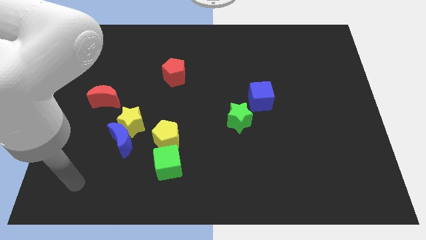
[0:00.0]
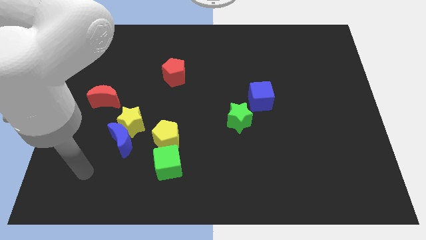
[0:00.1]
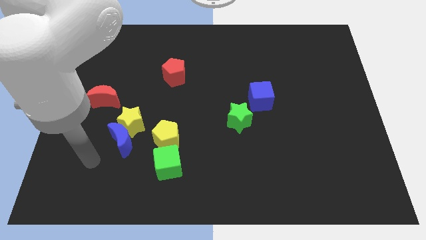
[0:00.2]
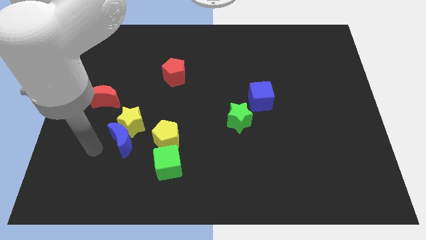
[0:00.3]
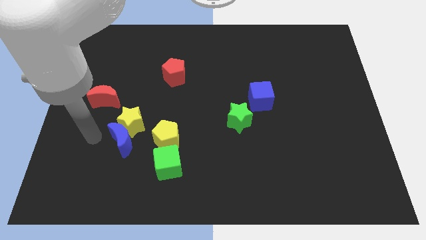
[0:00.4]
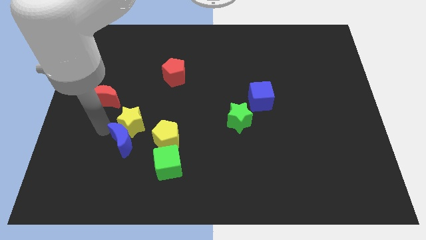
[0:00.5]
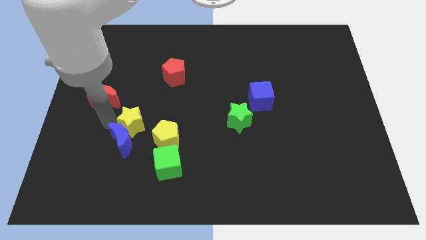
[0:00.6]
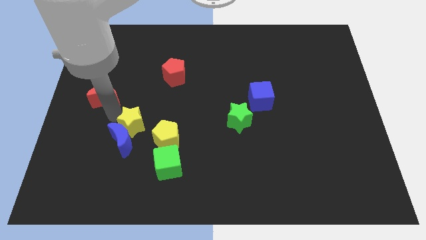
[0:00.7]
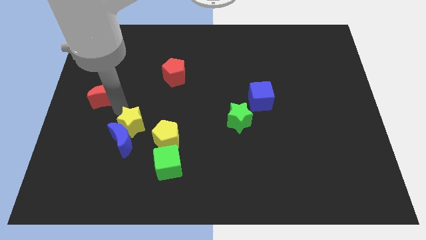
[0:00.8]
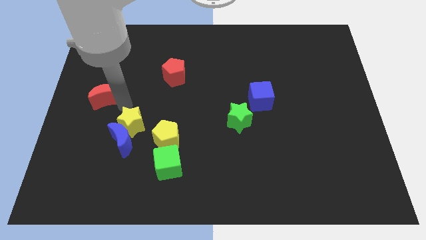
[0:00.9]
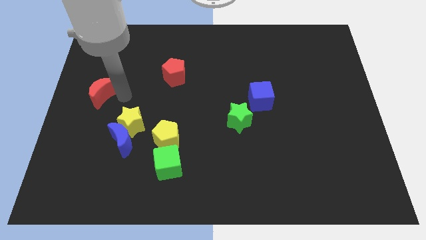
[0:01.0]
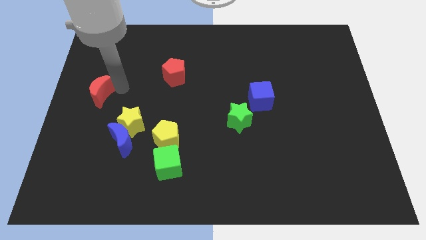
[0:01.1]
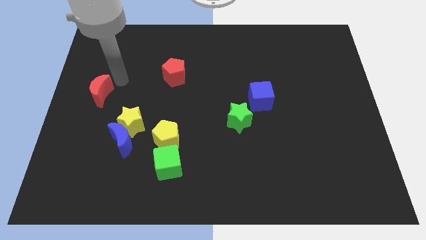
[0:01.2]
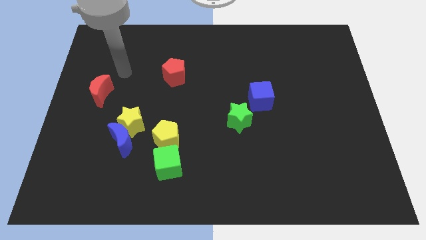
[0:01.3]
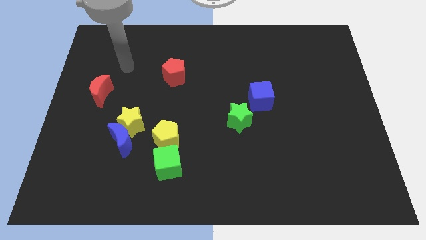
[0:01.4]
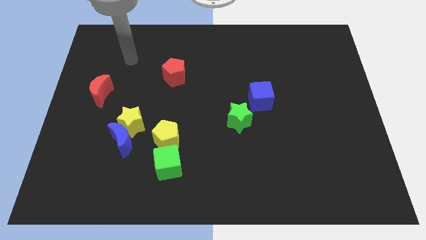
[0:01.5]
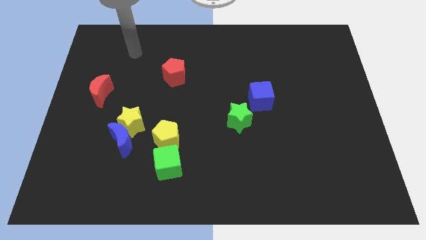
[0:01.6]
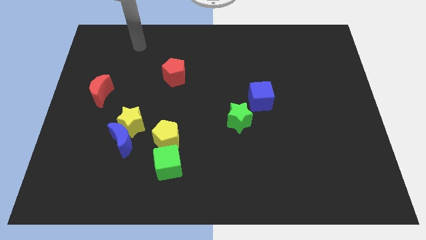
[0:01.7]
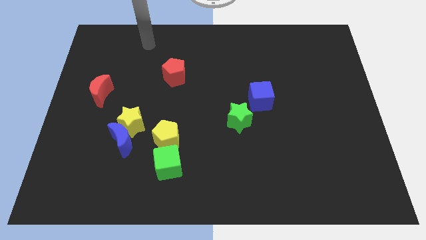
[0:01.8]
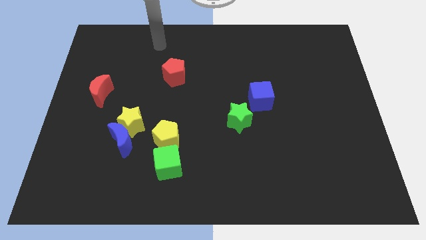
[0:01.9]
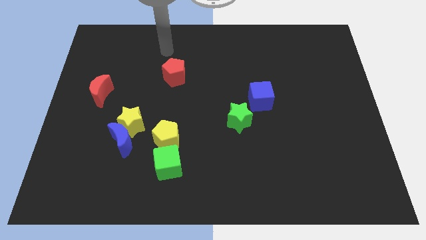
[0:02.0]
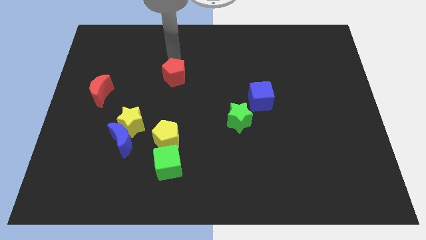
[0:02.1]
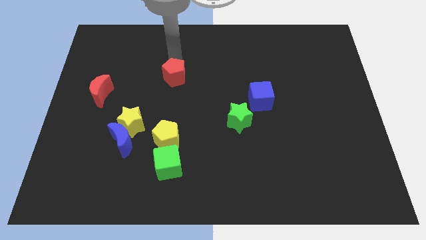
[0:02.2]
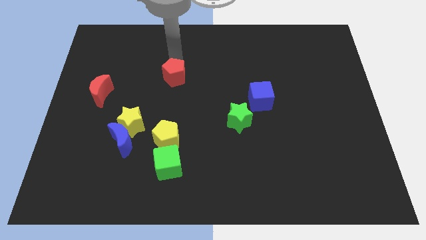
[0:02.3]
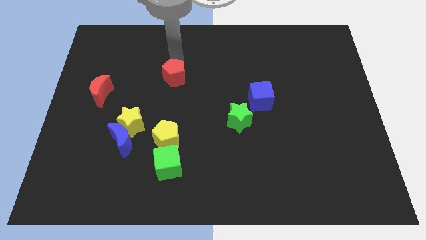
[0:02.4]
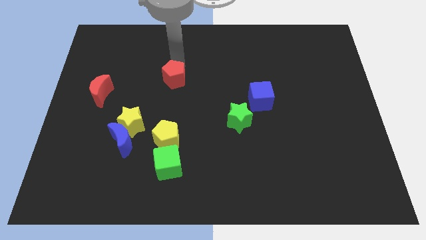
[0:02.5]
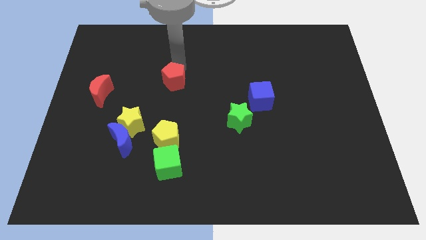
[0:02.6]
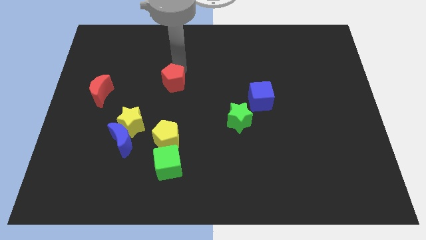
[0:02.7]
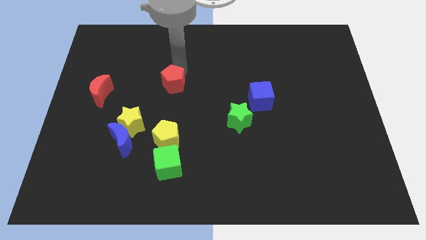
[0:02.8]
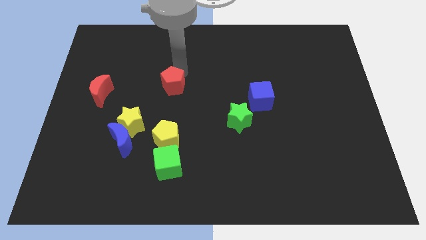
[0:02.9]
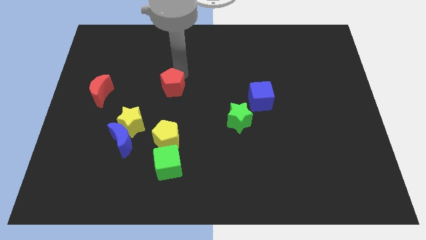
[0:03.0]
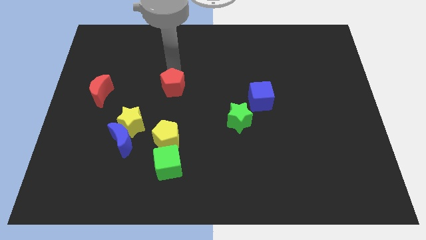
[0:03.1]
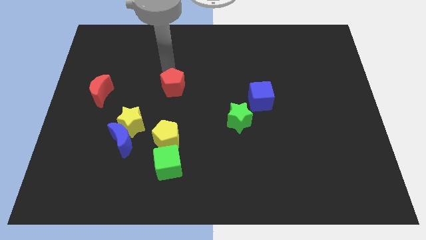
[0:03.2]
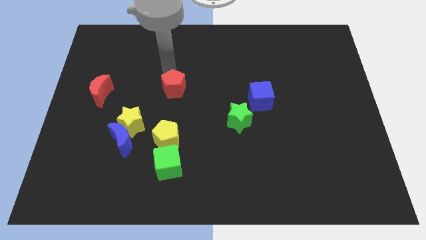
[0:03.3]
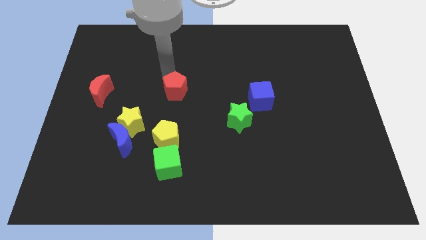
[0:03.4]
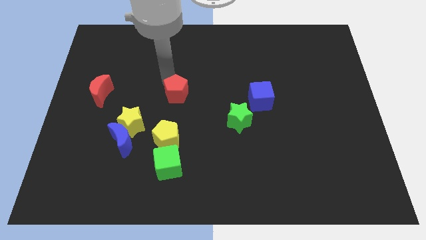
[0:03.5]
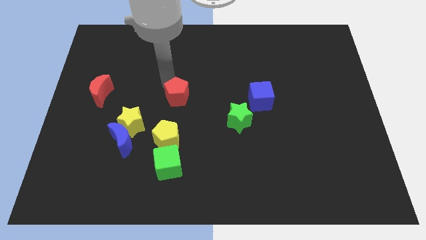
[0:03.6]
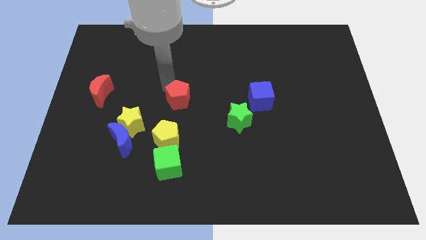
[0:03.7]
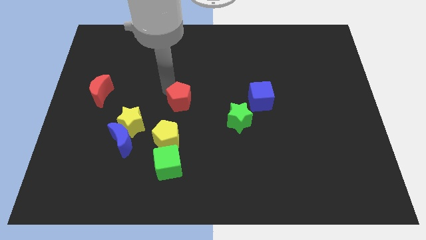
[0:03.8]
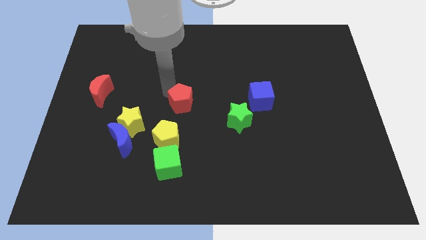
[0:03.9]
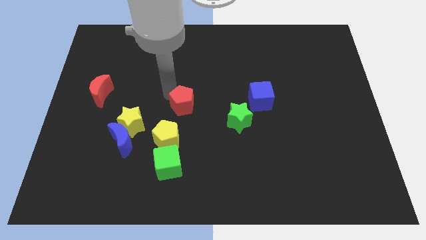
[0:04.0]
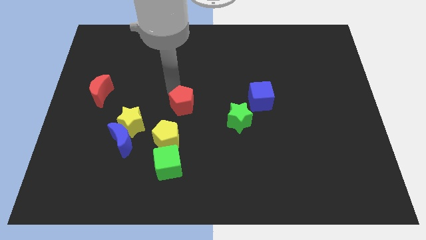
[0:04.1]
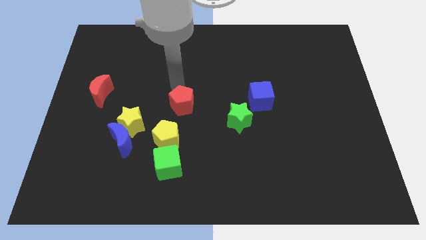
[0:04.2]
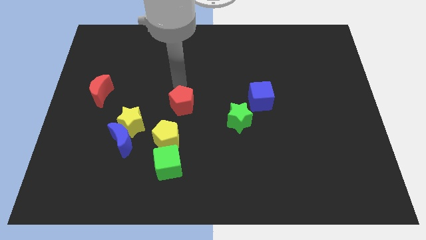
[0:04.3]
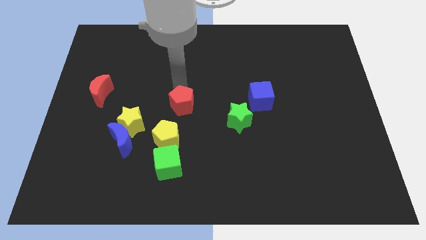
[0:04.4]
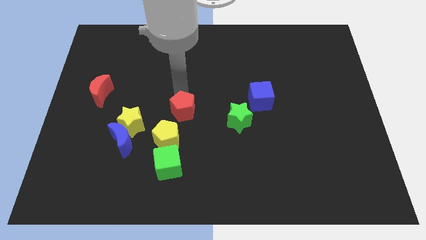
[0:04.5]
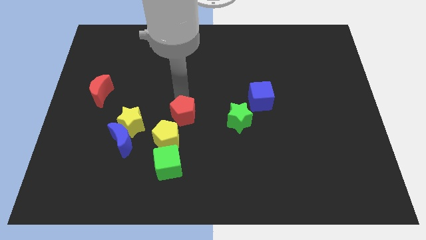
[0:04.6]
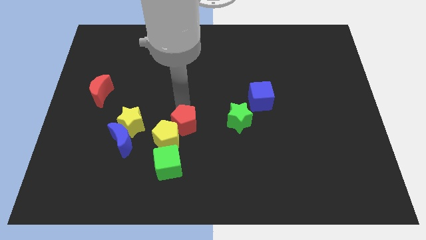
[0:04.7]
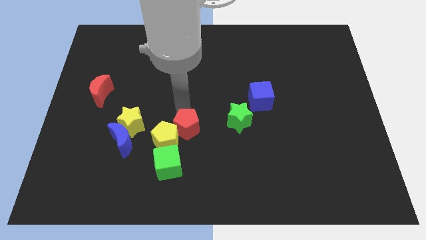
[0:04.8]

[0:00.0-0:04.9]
move the red pentagon to the top right of the green cube

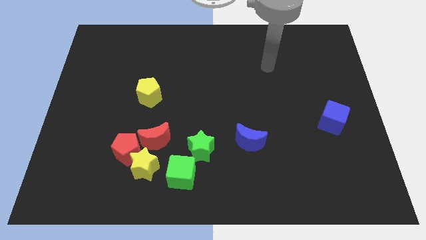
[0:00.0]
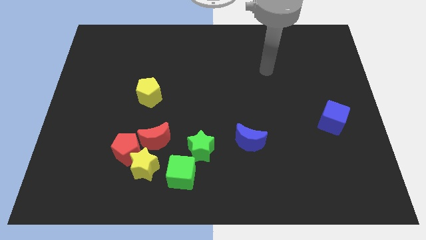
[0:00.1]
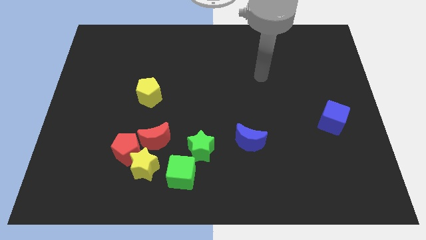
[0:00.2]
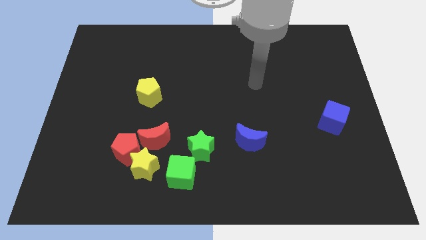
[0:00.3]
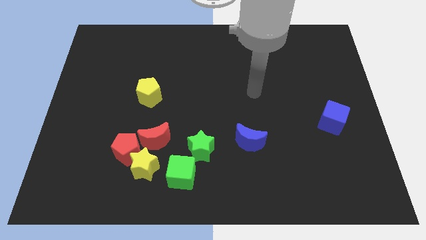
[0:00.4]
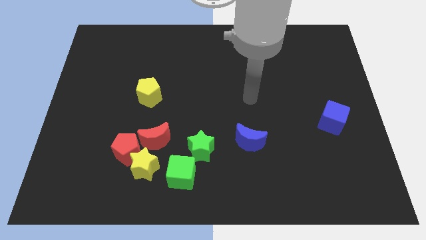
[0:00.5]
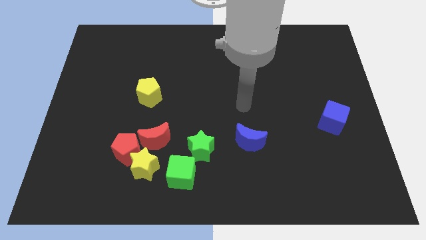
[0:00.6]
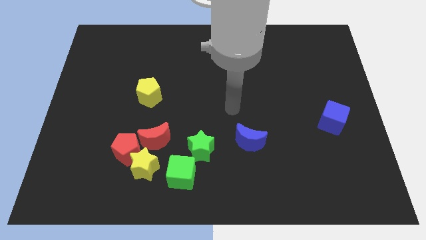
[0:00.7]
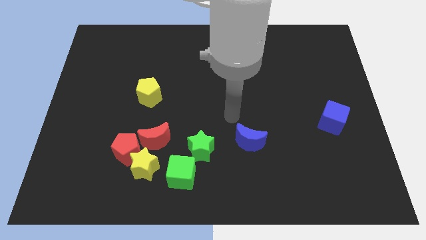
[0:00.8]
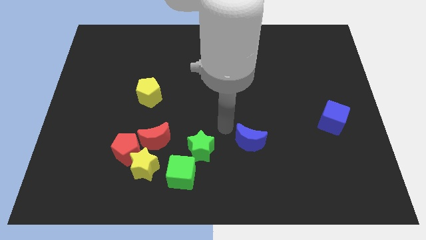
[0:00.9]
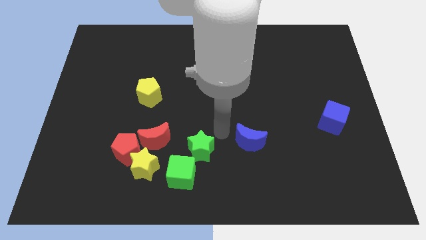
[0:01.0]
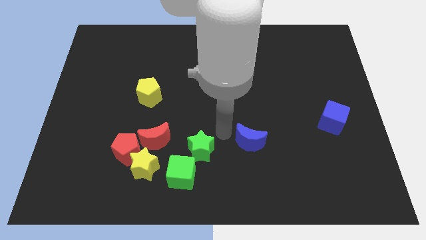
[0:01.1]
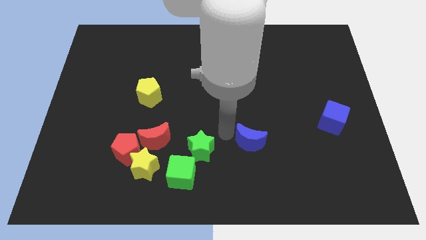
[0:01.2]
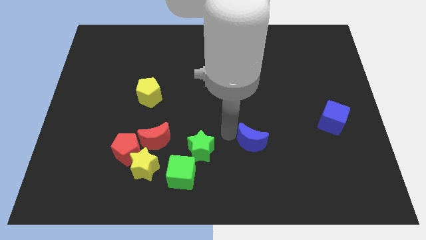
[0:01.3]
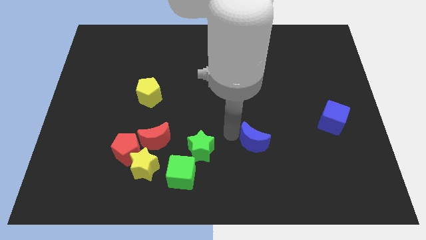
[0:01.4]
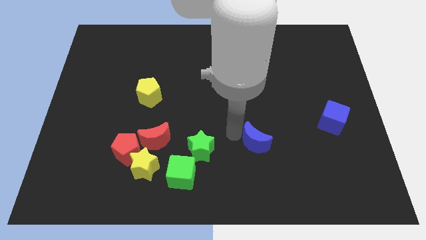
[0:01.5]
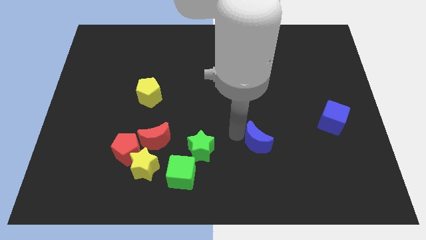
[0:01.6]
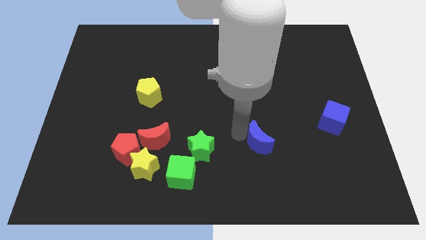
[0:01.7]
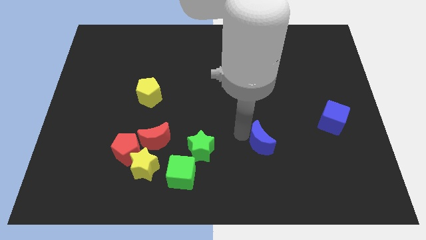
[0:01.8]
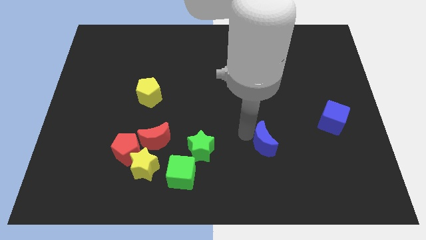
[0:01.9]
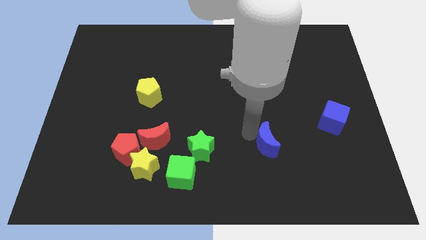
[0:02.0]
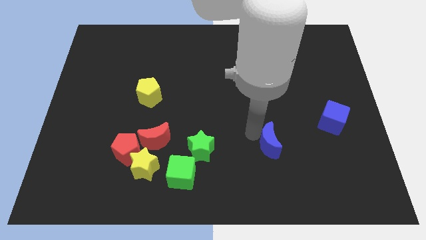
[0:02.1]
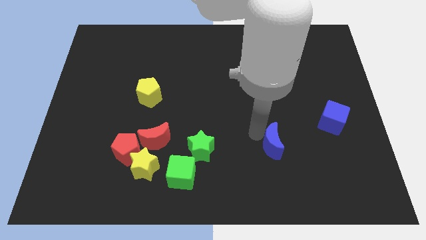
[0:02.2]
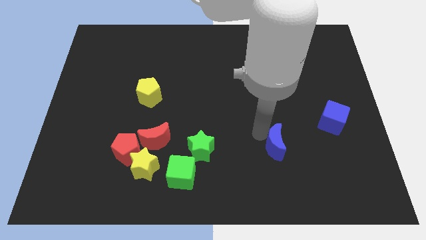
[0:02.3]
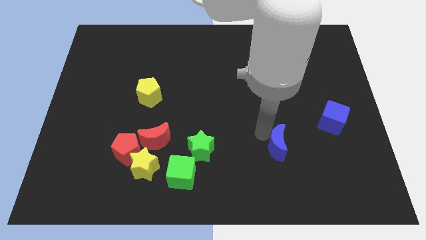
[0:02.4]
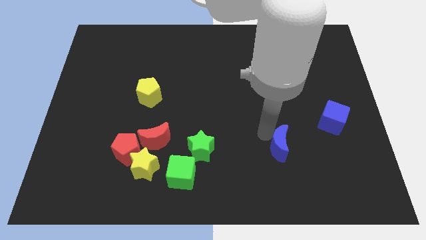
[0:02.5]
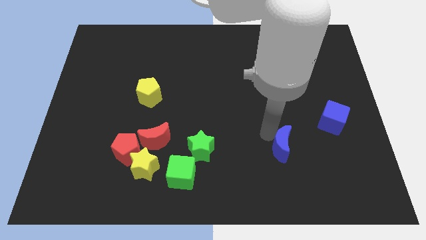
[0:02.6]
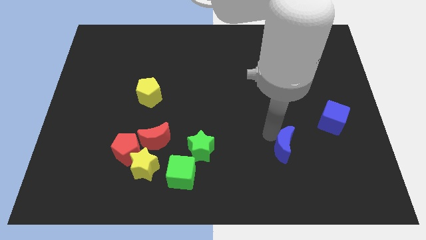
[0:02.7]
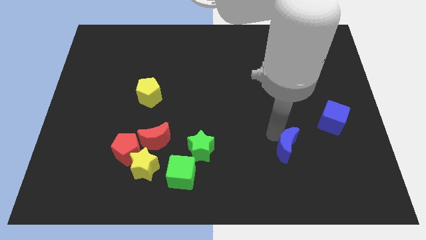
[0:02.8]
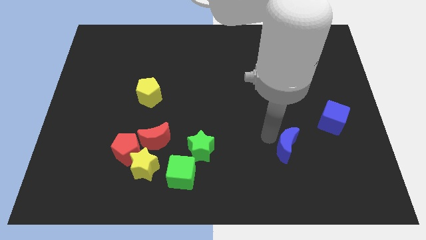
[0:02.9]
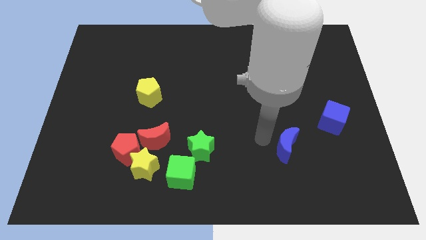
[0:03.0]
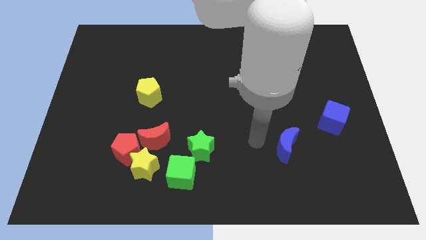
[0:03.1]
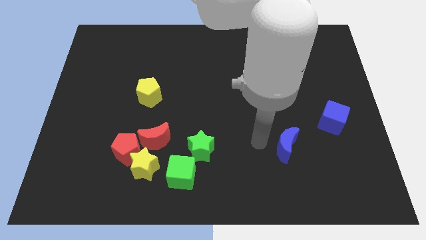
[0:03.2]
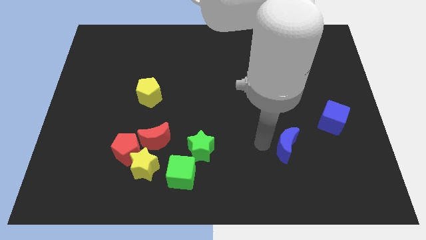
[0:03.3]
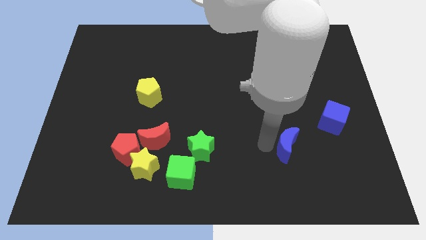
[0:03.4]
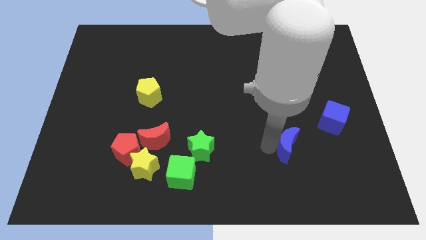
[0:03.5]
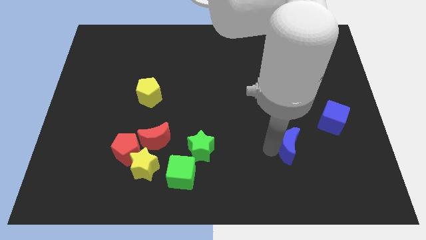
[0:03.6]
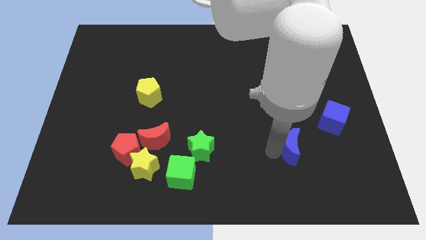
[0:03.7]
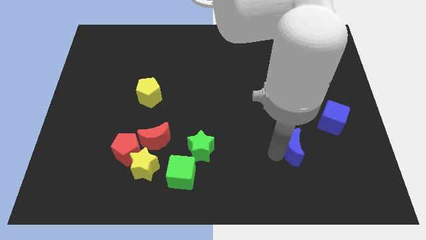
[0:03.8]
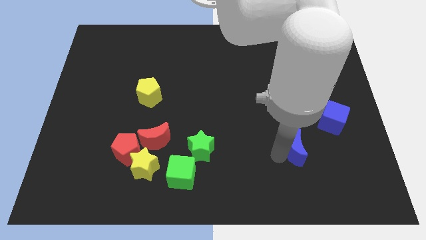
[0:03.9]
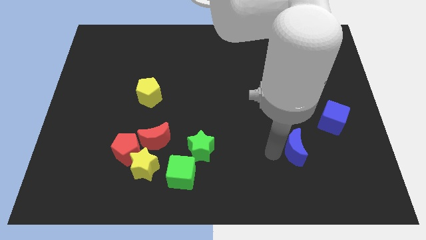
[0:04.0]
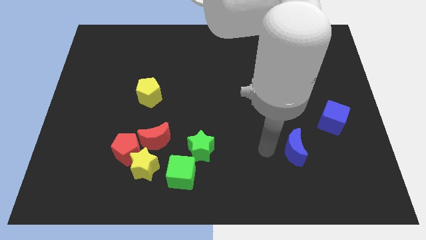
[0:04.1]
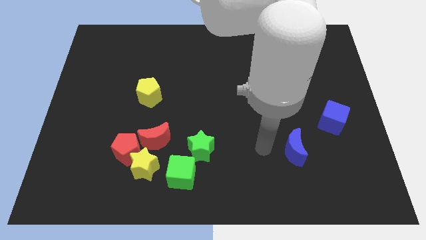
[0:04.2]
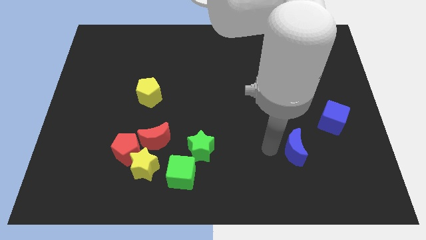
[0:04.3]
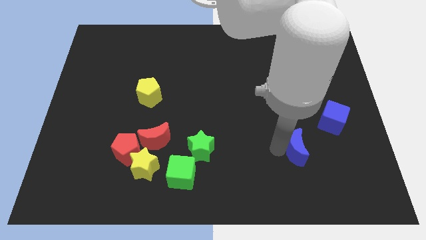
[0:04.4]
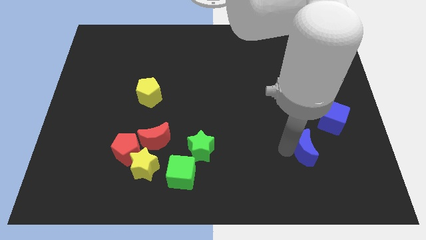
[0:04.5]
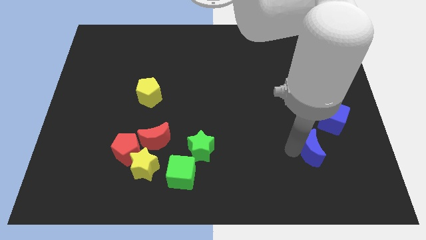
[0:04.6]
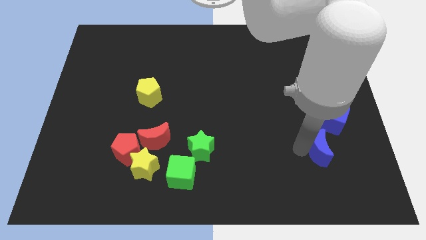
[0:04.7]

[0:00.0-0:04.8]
slide the blue moon below the blue cube
